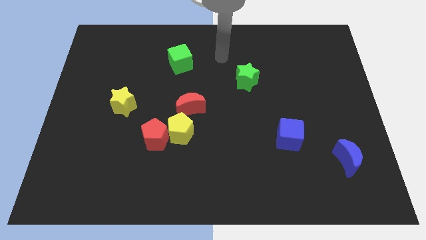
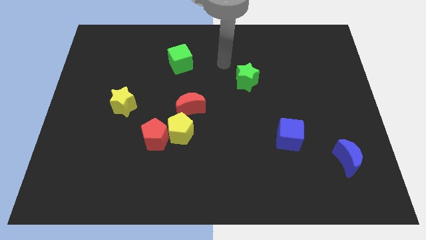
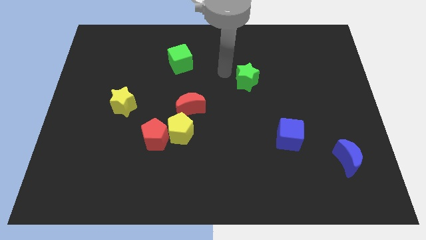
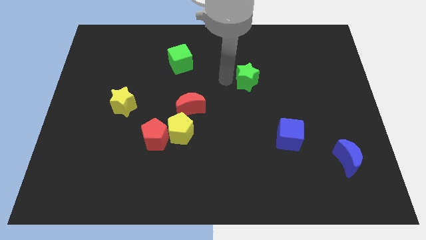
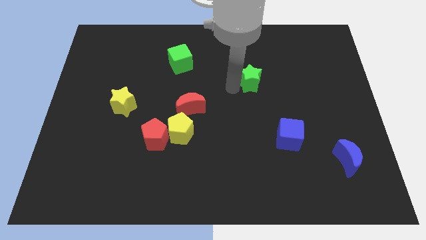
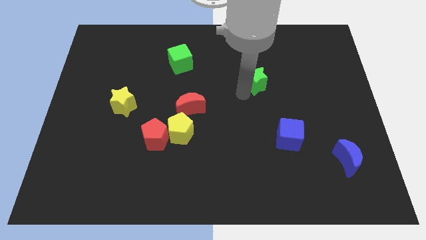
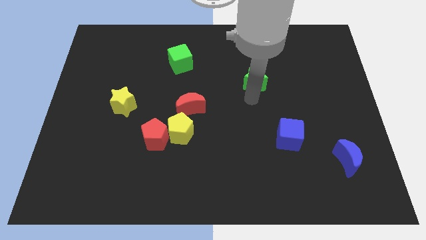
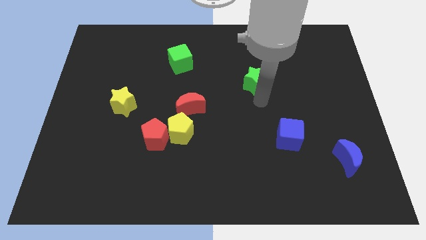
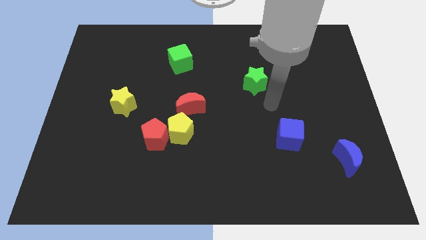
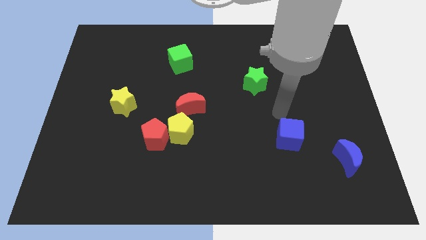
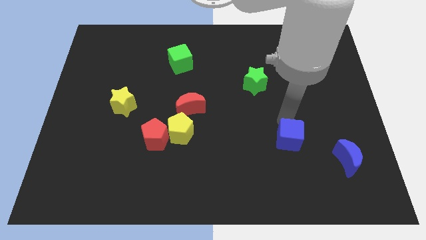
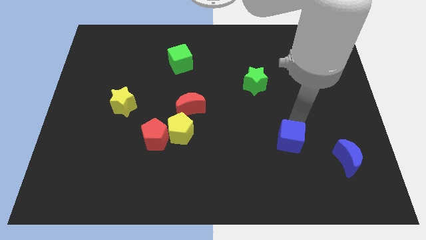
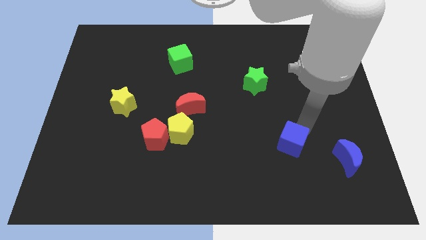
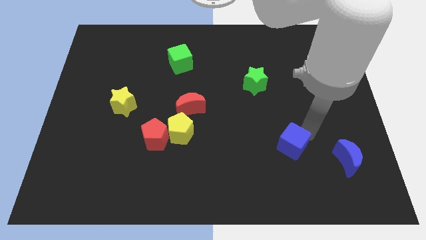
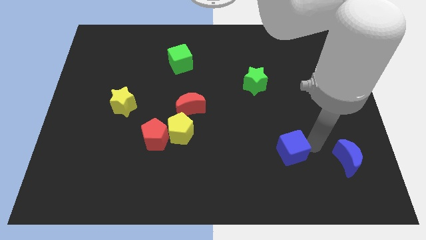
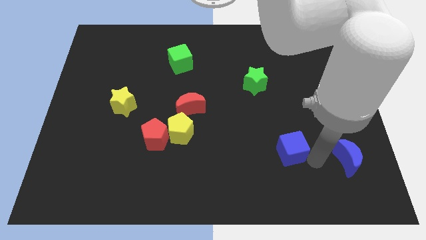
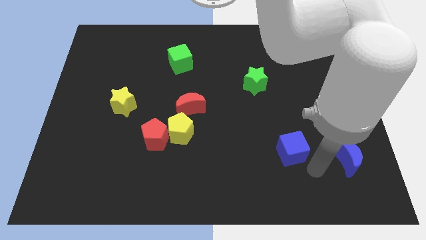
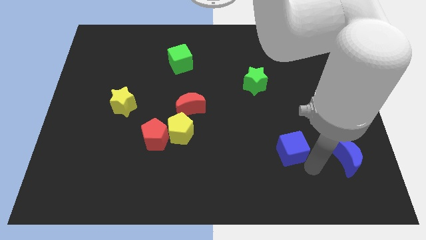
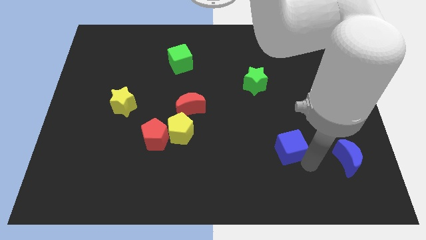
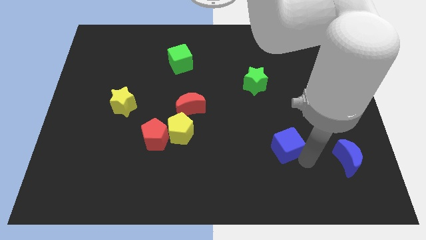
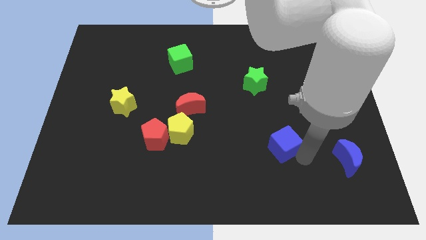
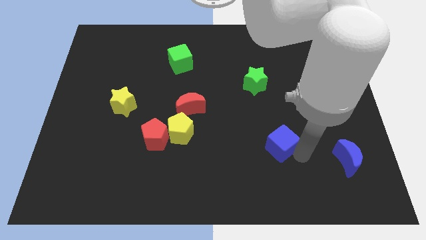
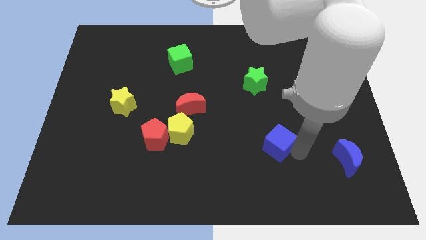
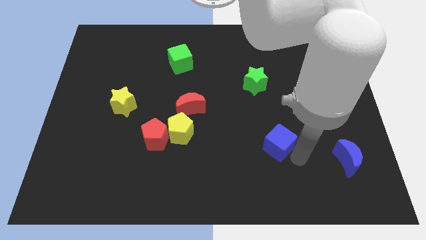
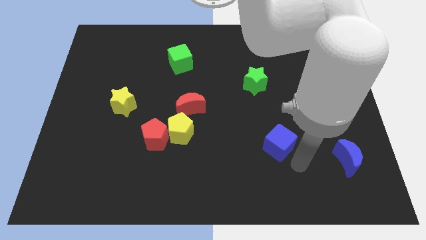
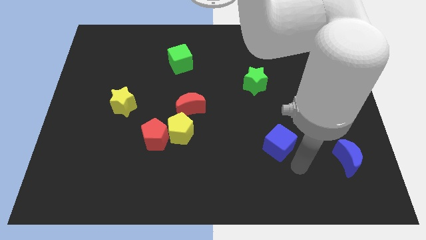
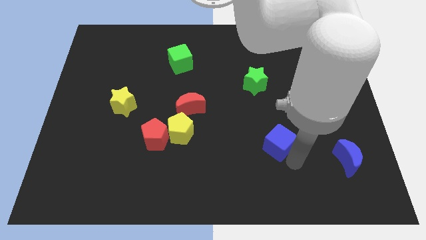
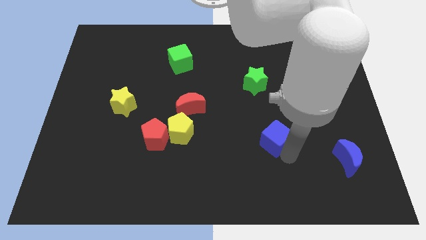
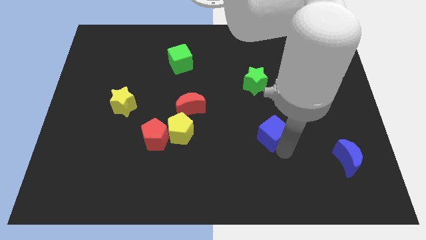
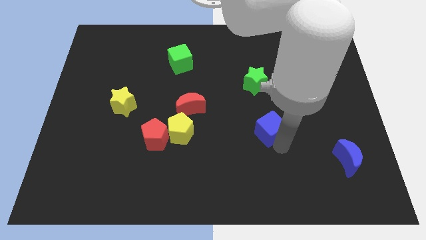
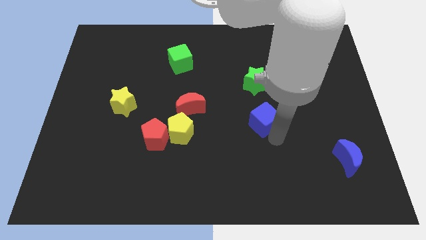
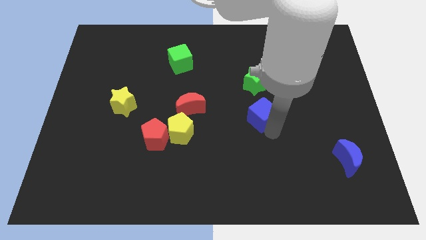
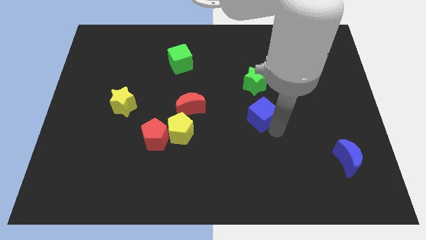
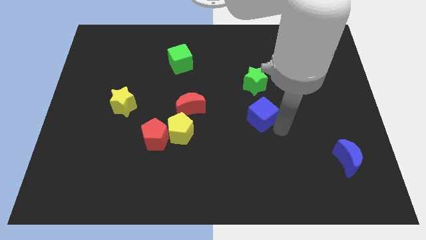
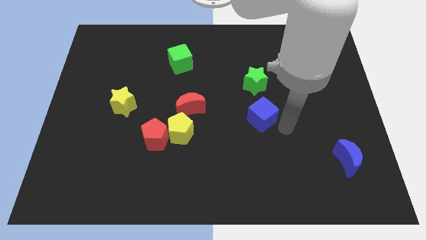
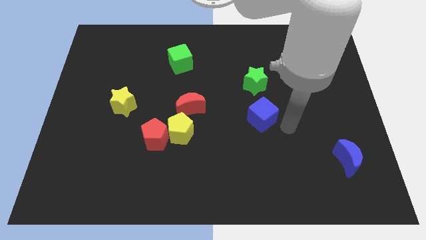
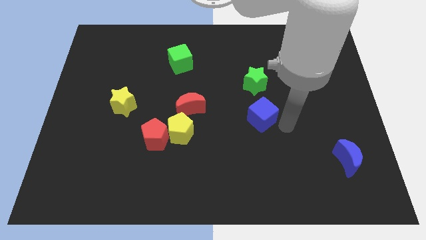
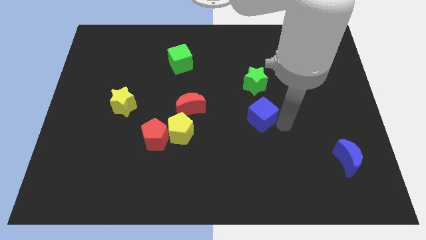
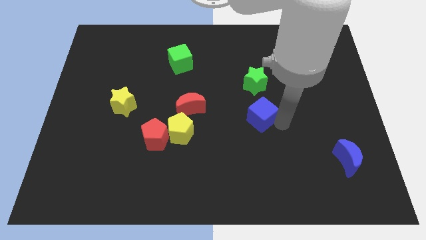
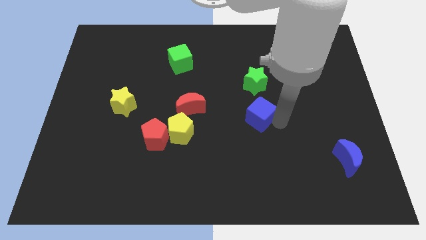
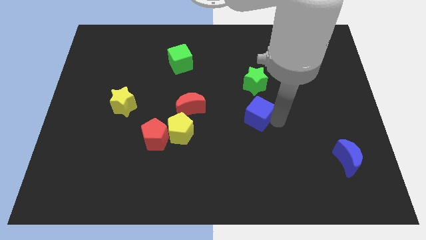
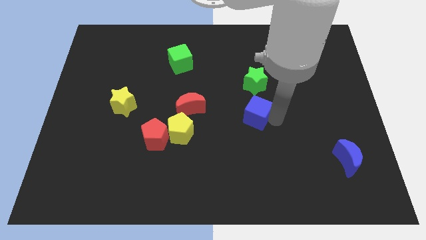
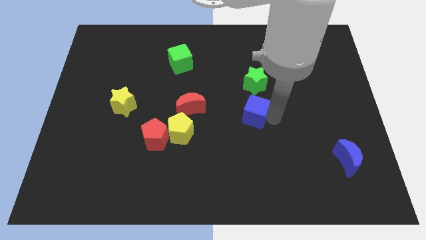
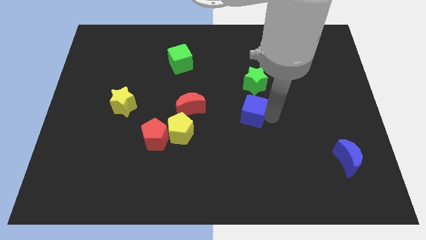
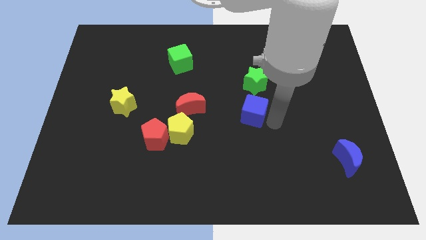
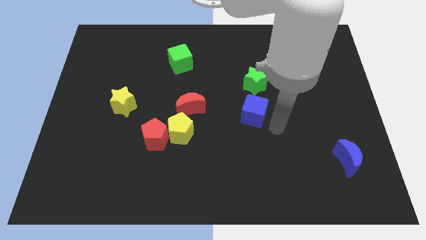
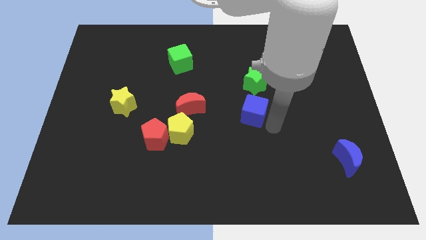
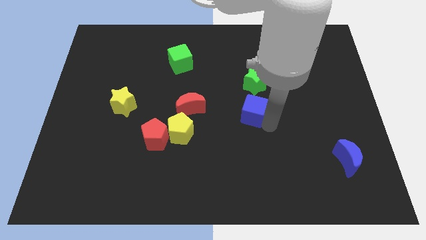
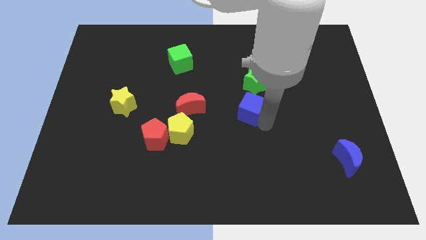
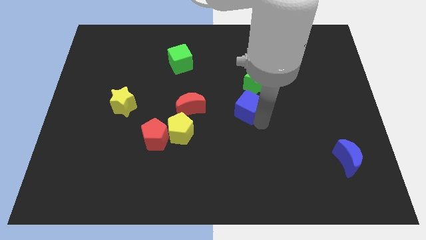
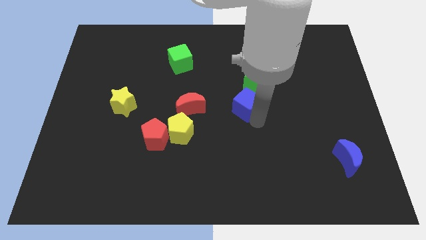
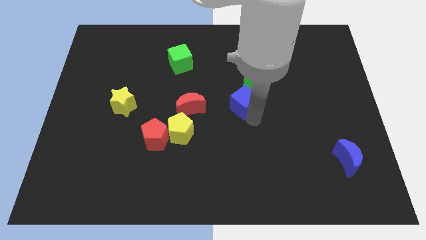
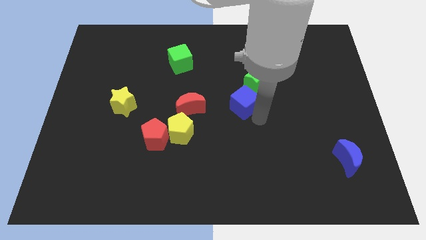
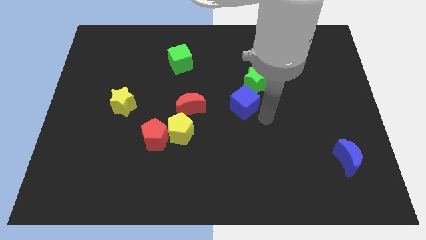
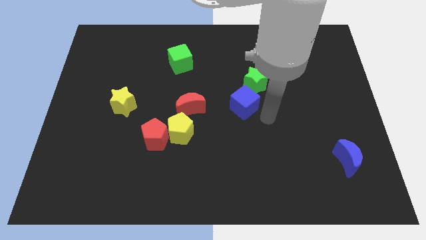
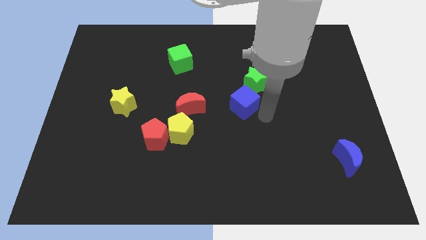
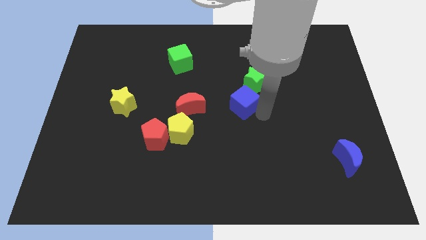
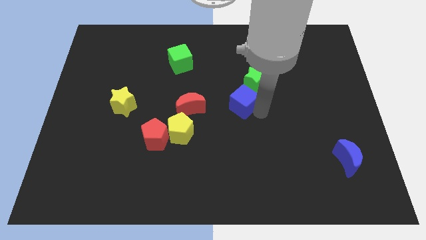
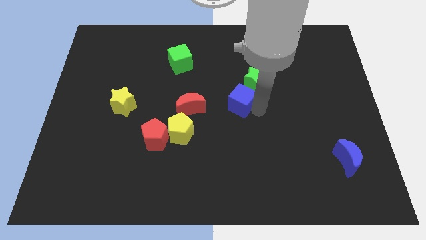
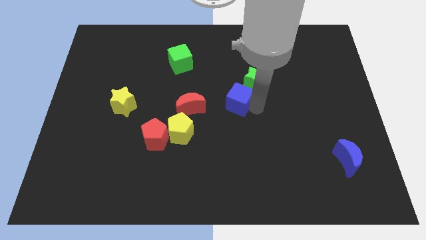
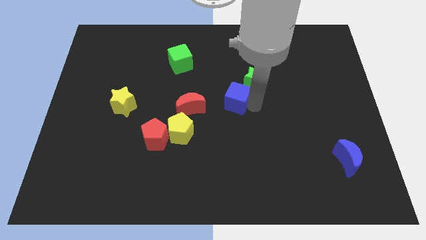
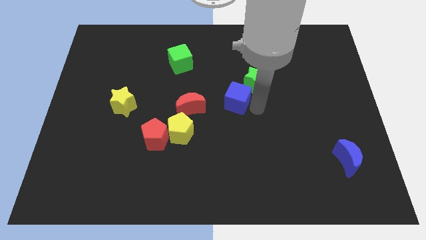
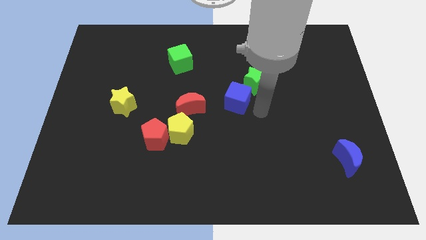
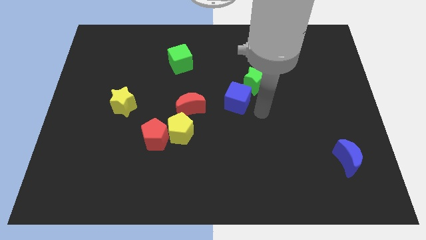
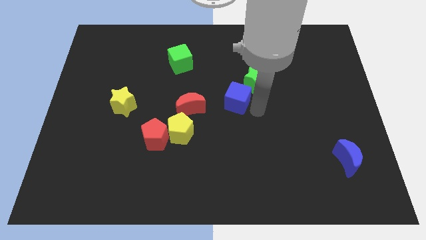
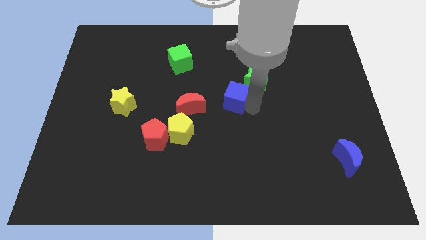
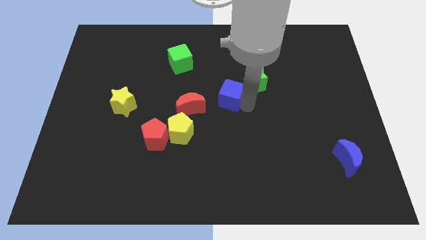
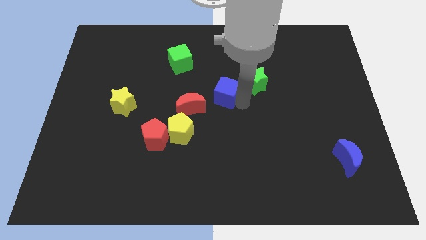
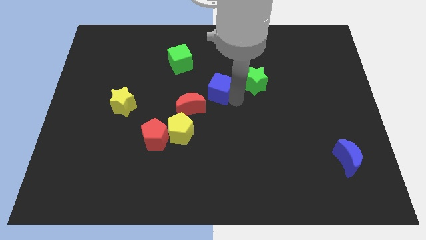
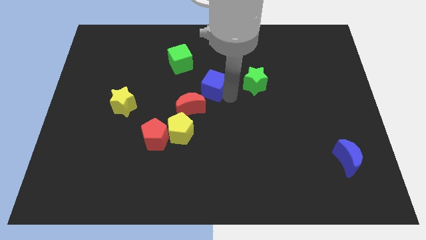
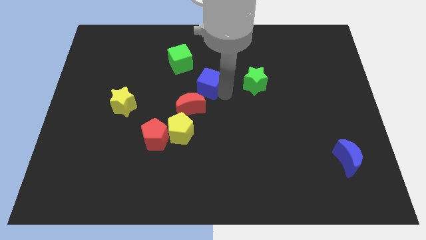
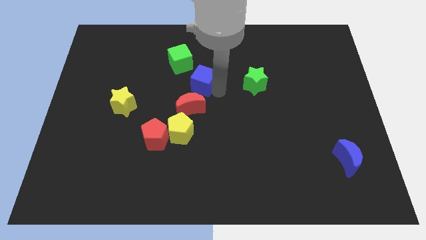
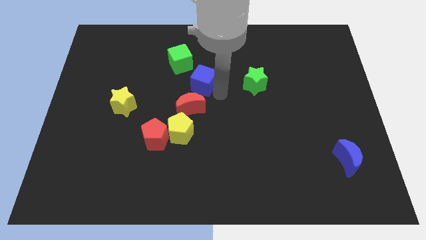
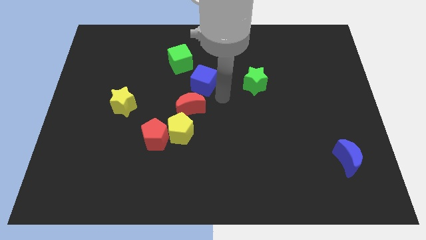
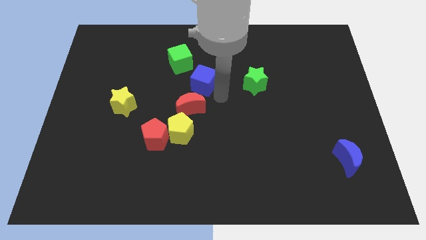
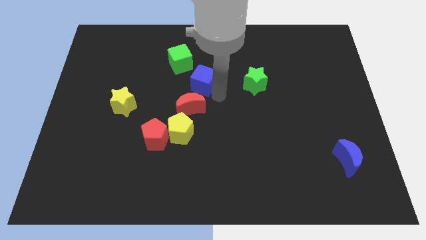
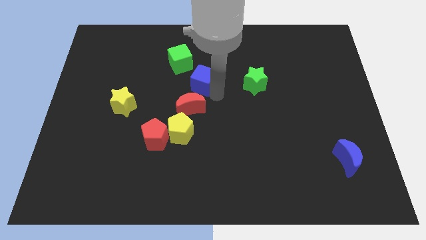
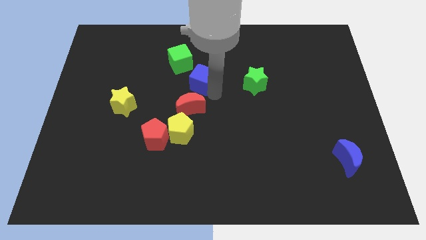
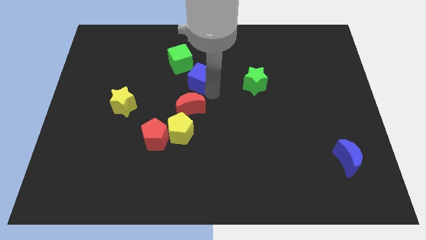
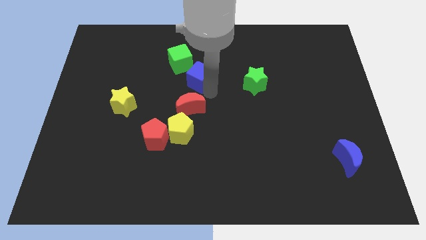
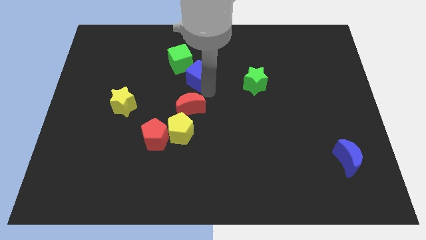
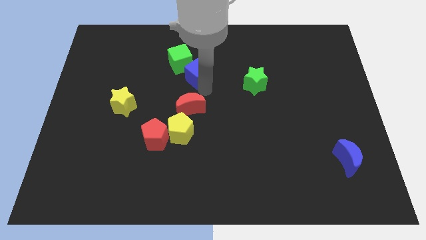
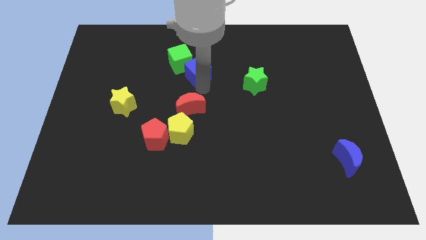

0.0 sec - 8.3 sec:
put the blue cube next to the green cube
